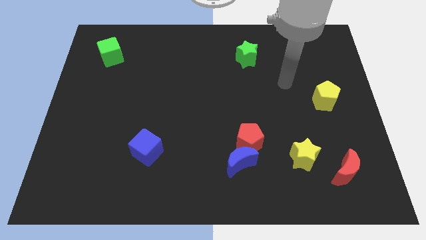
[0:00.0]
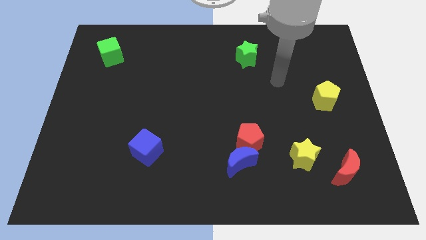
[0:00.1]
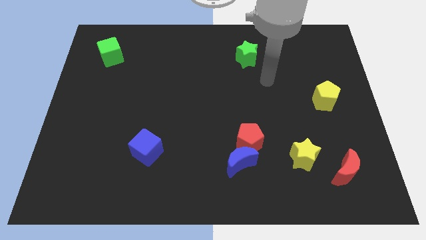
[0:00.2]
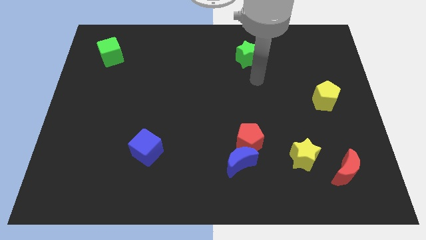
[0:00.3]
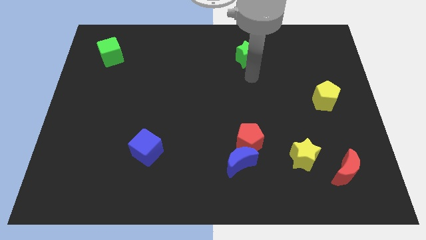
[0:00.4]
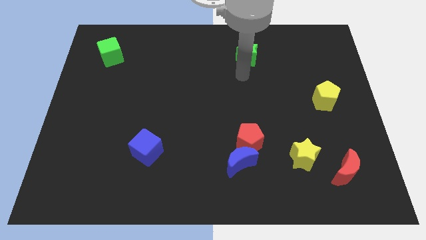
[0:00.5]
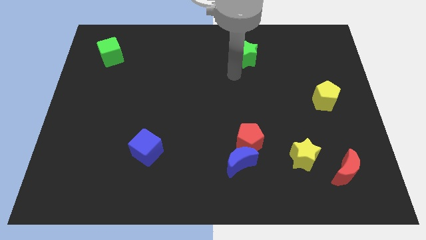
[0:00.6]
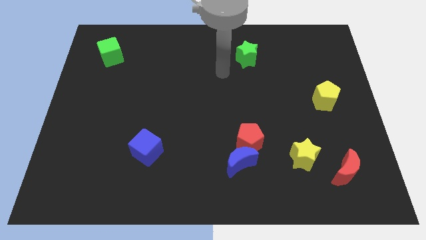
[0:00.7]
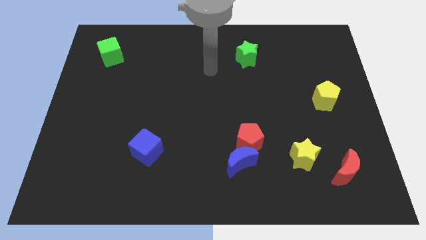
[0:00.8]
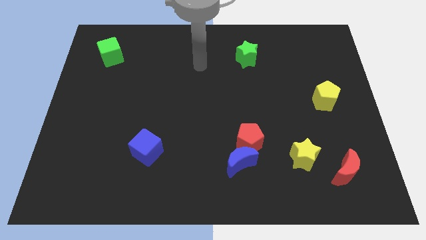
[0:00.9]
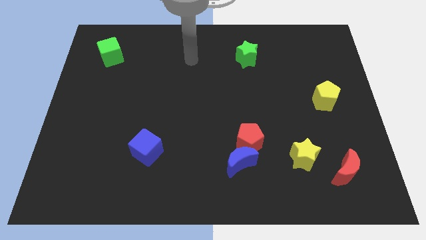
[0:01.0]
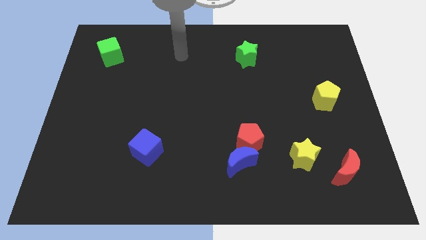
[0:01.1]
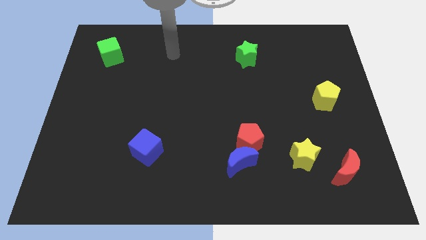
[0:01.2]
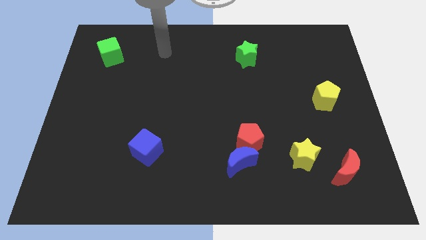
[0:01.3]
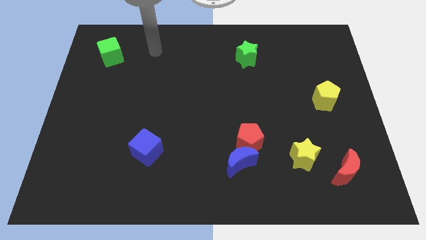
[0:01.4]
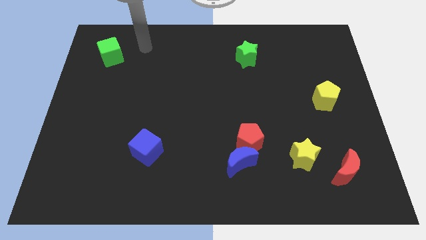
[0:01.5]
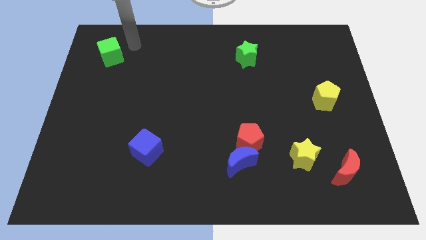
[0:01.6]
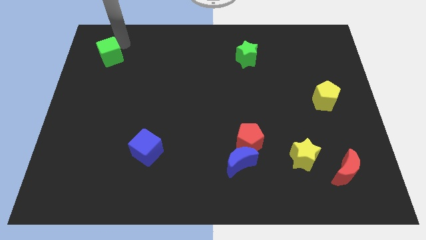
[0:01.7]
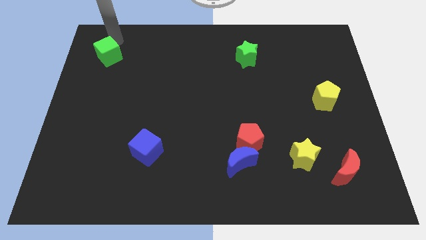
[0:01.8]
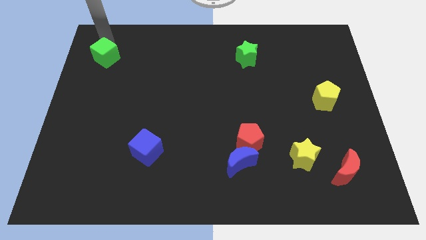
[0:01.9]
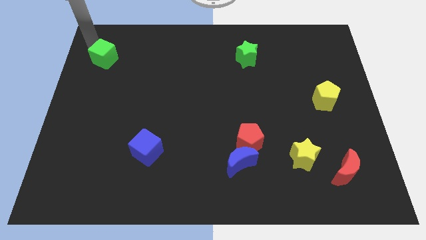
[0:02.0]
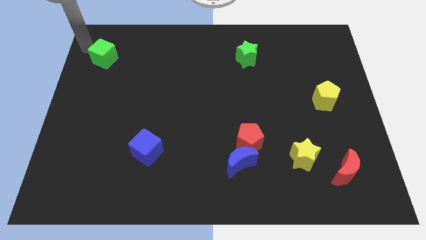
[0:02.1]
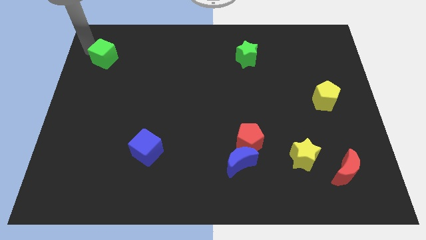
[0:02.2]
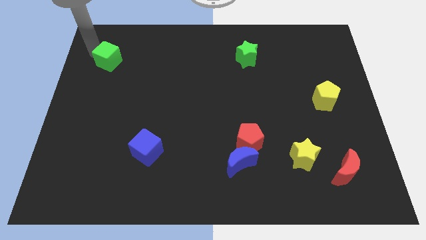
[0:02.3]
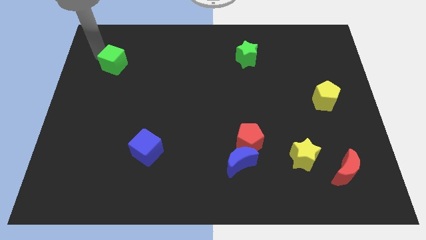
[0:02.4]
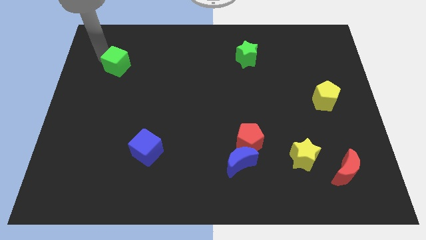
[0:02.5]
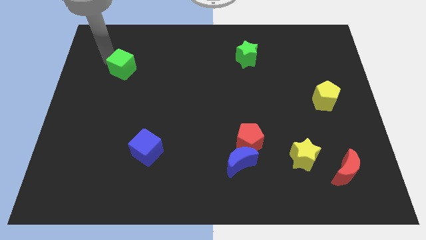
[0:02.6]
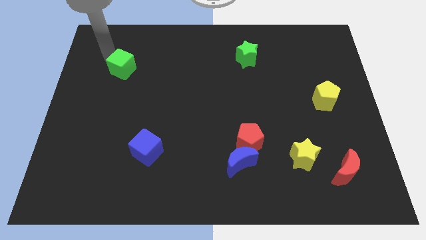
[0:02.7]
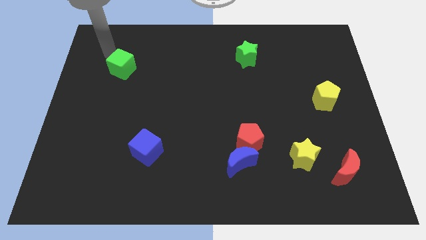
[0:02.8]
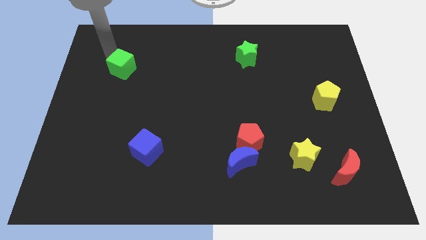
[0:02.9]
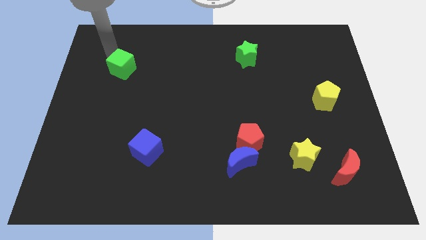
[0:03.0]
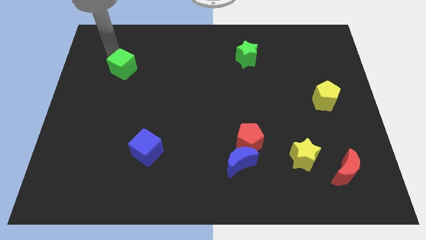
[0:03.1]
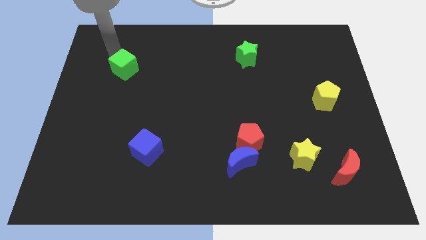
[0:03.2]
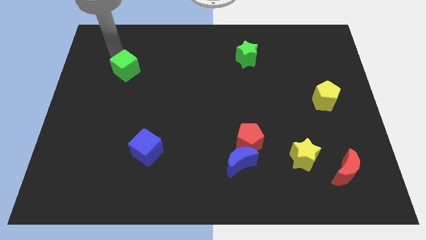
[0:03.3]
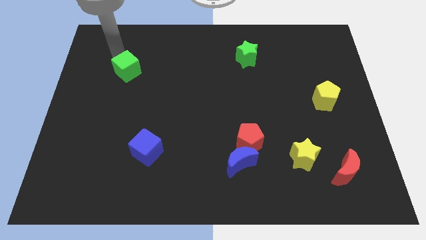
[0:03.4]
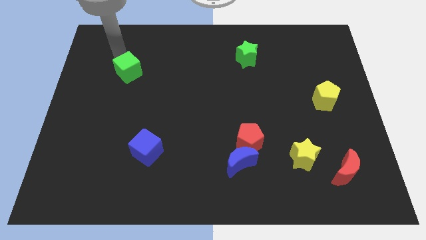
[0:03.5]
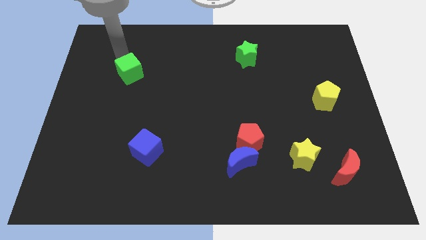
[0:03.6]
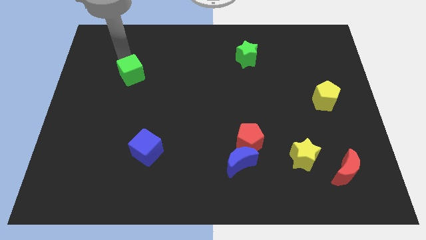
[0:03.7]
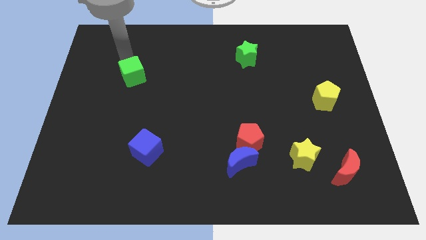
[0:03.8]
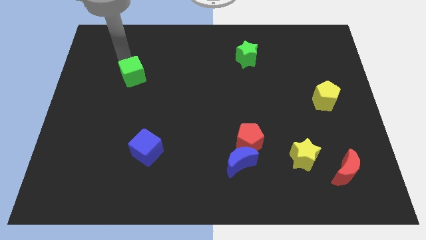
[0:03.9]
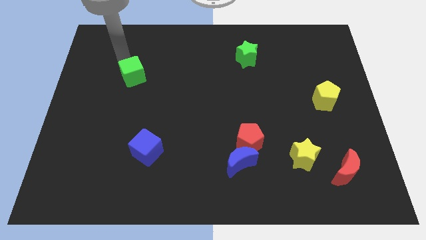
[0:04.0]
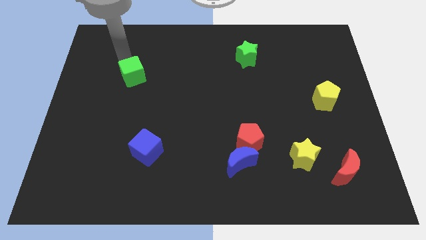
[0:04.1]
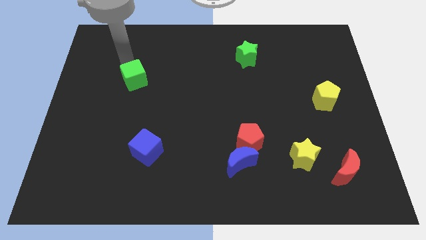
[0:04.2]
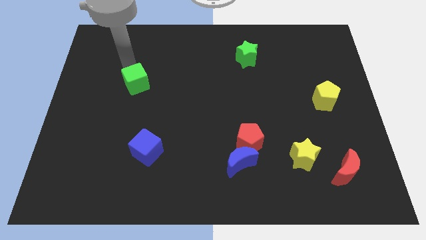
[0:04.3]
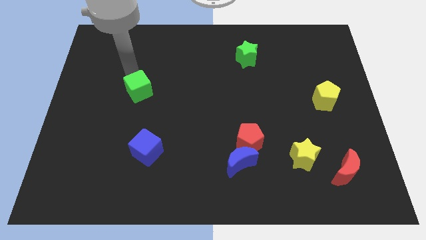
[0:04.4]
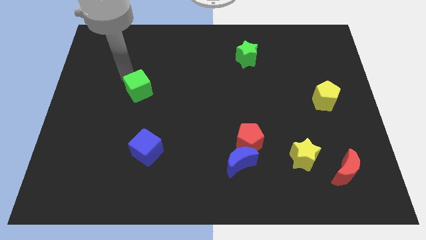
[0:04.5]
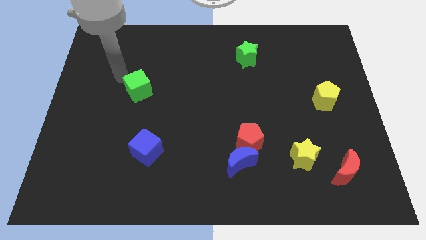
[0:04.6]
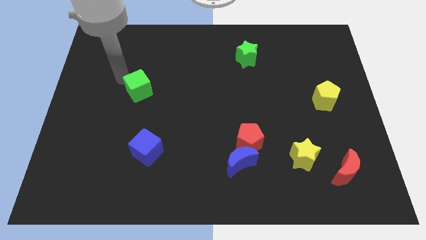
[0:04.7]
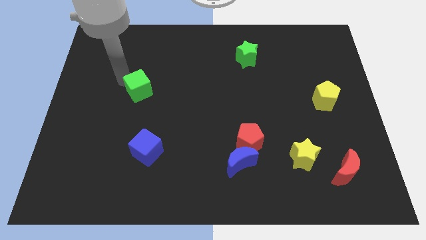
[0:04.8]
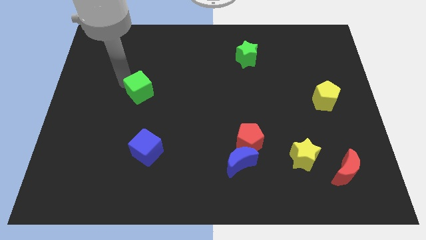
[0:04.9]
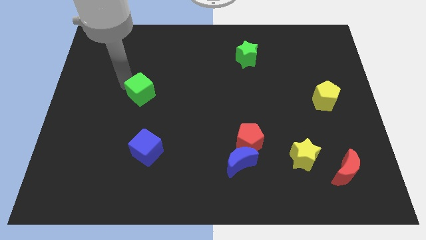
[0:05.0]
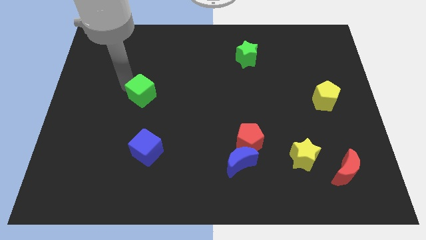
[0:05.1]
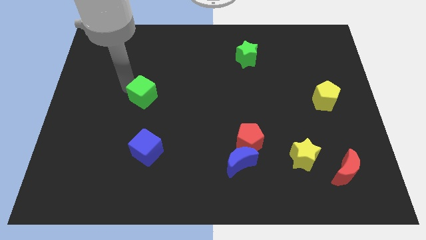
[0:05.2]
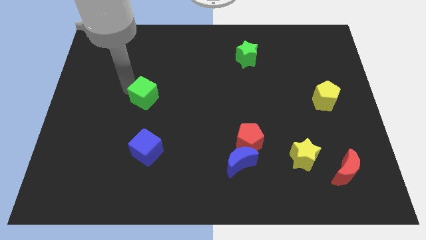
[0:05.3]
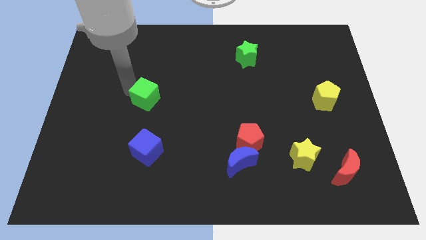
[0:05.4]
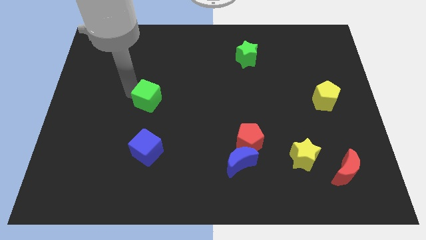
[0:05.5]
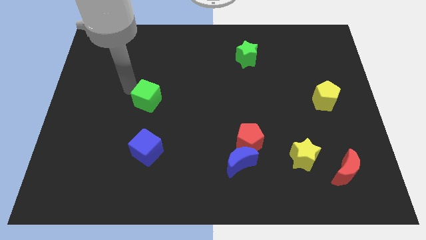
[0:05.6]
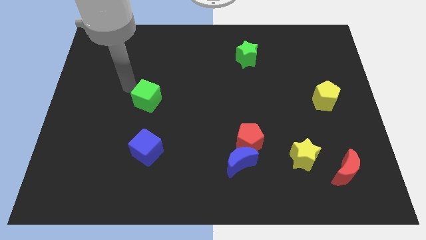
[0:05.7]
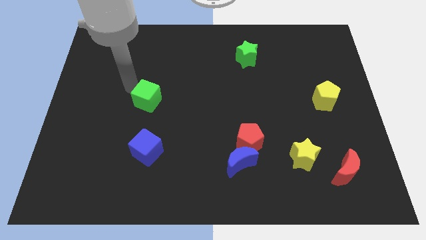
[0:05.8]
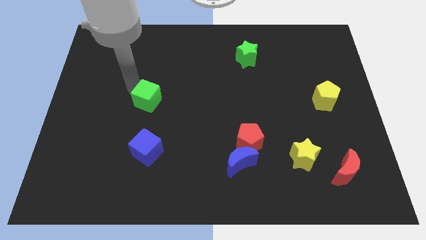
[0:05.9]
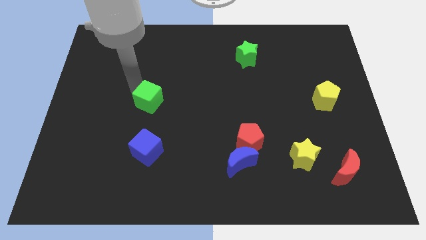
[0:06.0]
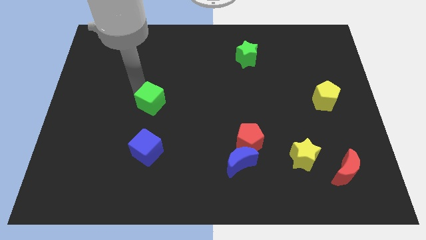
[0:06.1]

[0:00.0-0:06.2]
move the green cube downwards and to the right

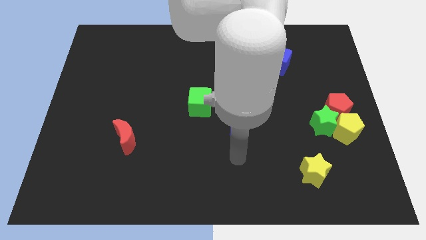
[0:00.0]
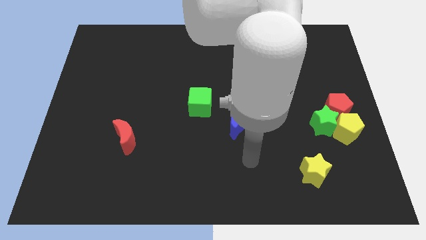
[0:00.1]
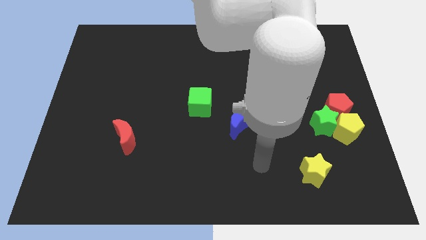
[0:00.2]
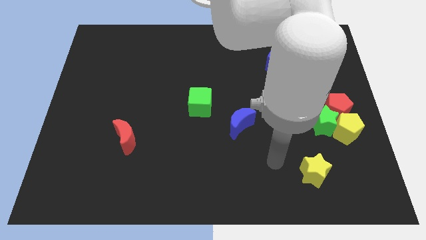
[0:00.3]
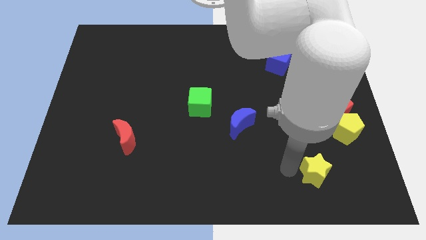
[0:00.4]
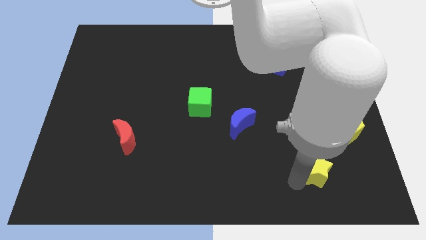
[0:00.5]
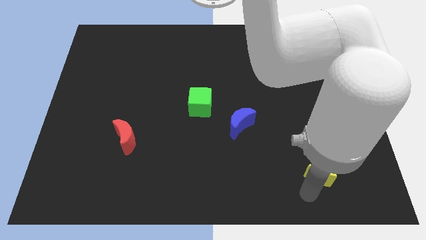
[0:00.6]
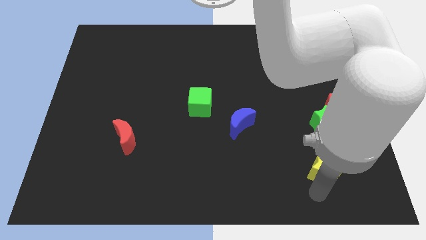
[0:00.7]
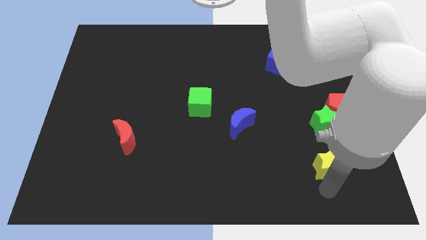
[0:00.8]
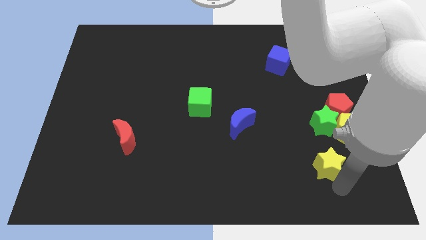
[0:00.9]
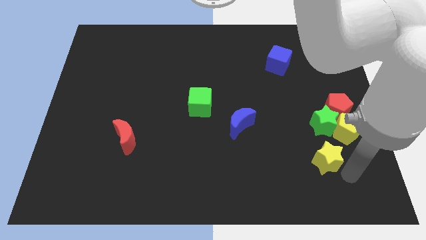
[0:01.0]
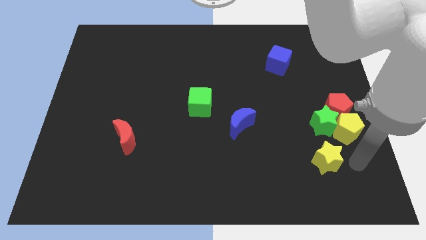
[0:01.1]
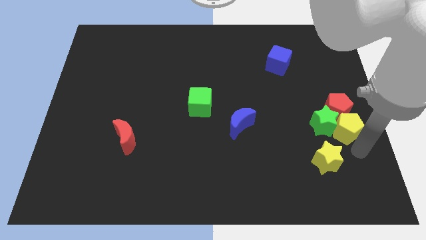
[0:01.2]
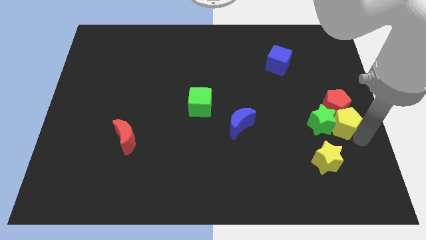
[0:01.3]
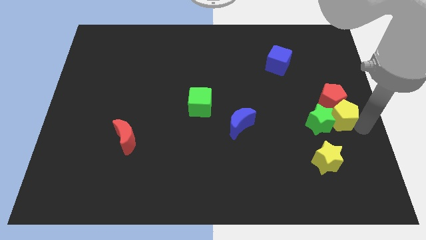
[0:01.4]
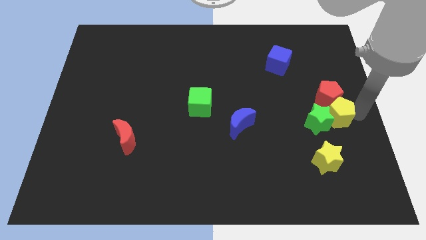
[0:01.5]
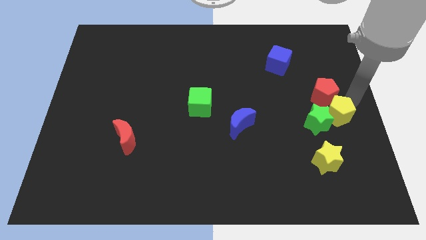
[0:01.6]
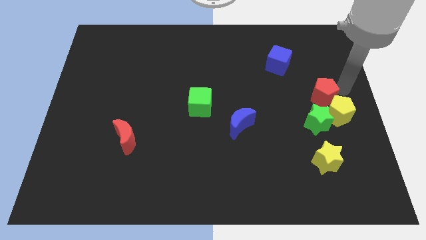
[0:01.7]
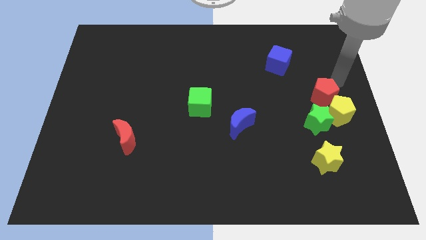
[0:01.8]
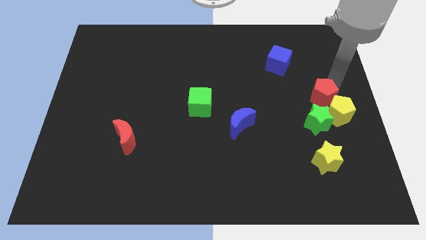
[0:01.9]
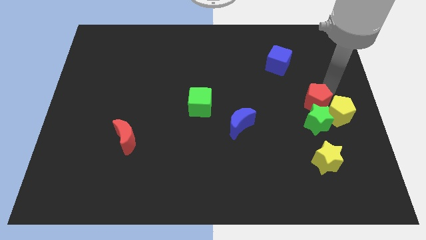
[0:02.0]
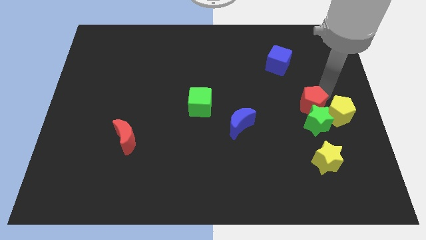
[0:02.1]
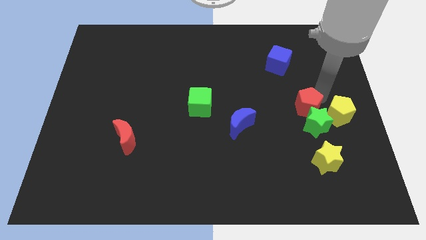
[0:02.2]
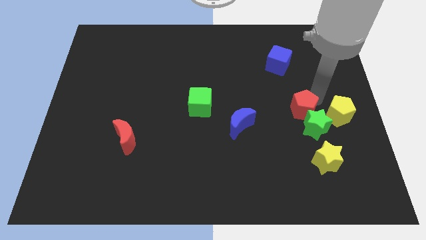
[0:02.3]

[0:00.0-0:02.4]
slightly move the red pentagon left
